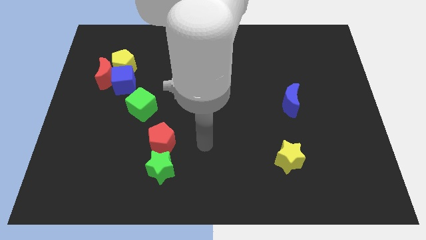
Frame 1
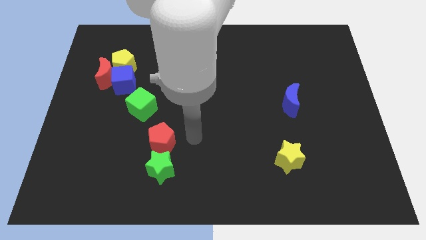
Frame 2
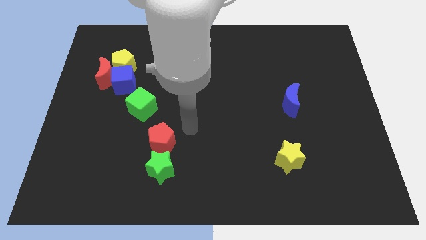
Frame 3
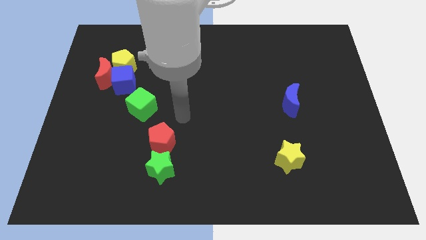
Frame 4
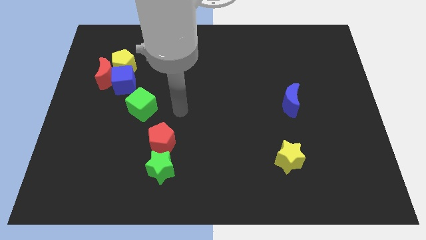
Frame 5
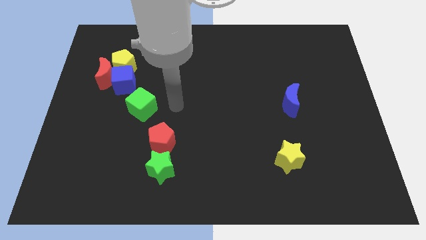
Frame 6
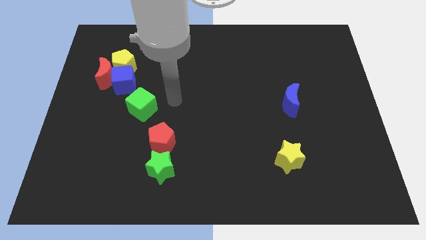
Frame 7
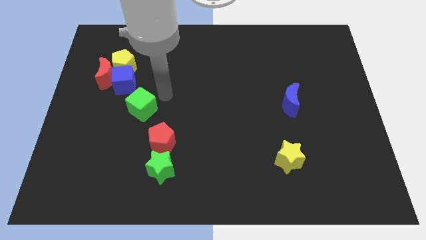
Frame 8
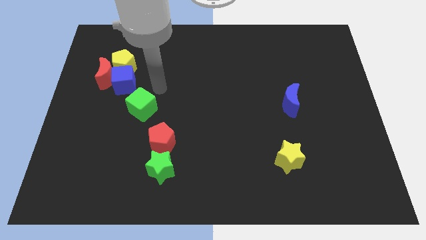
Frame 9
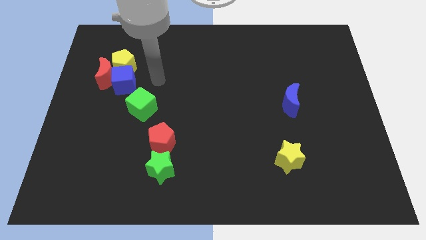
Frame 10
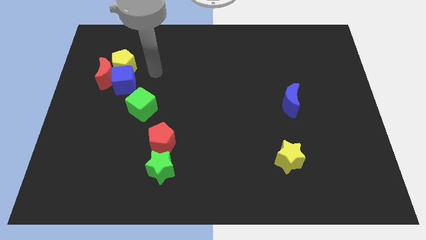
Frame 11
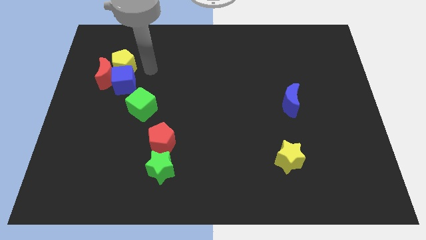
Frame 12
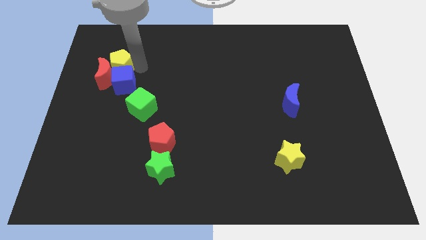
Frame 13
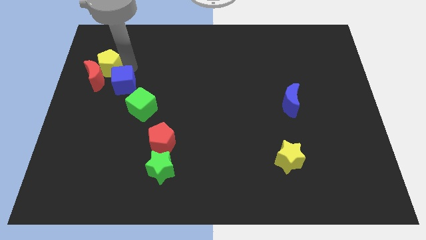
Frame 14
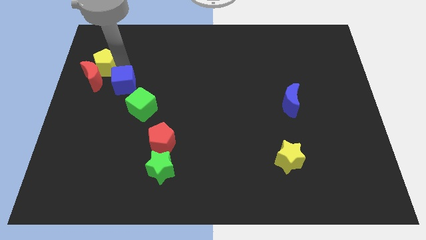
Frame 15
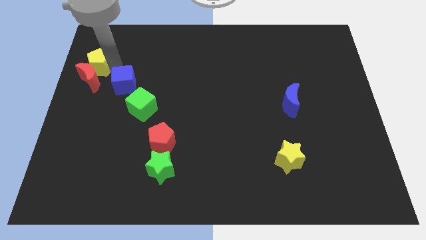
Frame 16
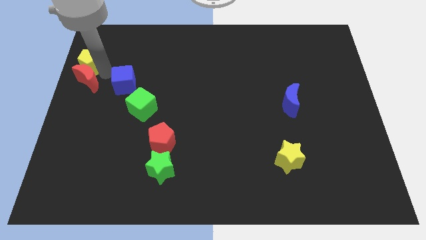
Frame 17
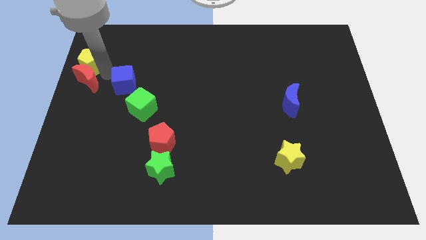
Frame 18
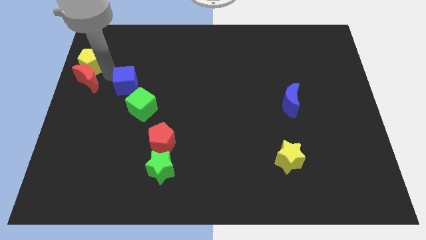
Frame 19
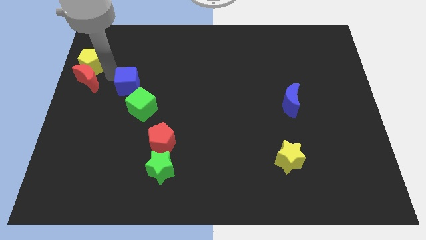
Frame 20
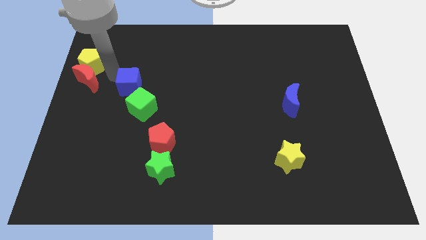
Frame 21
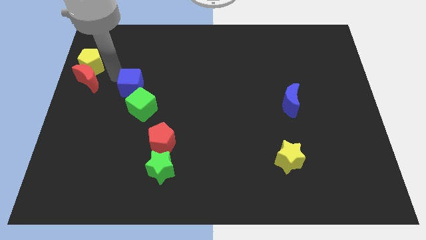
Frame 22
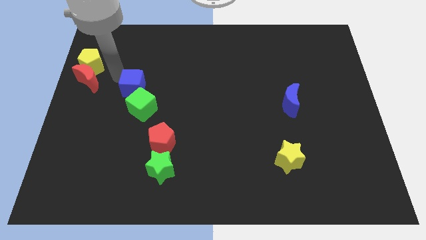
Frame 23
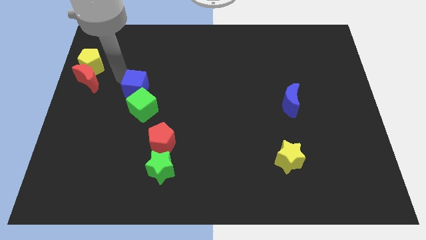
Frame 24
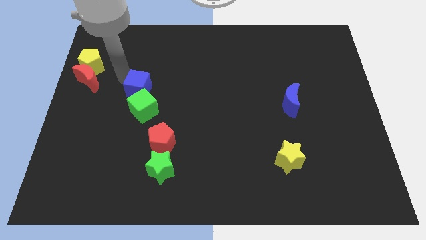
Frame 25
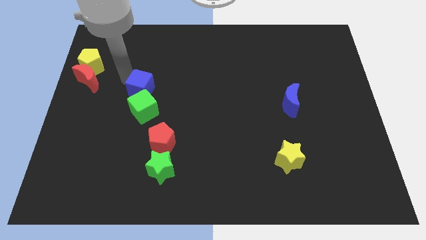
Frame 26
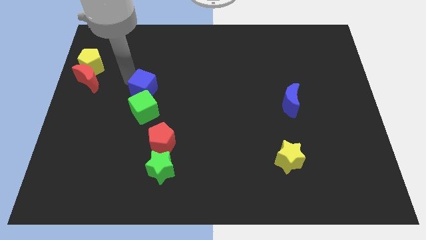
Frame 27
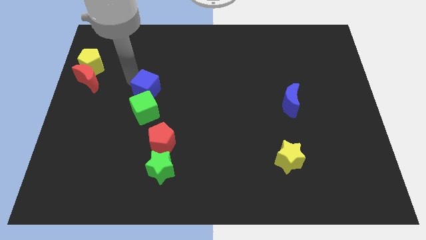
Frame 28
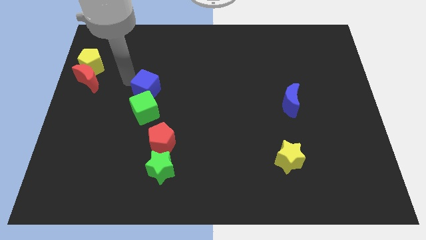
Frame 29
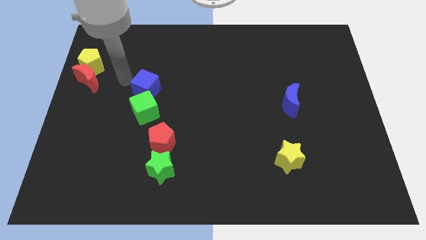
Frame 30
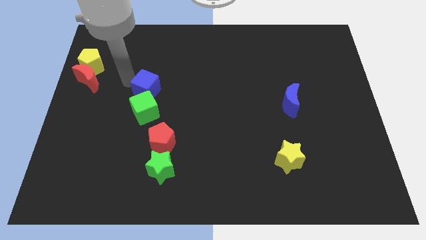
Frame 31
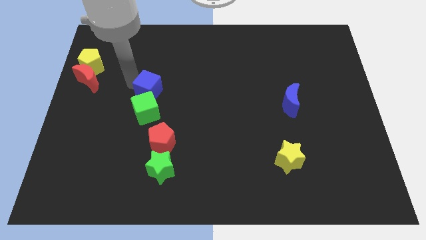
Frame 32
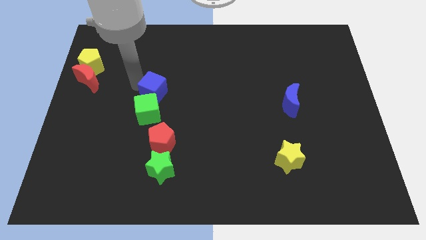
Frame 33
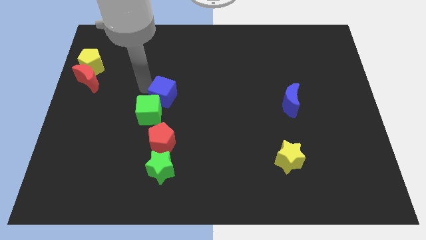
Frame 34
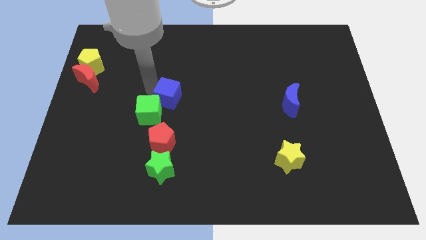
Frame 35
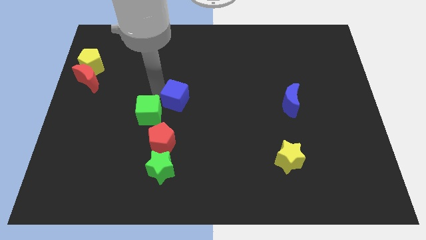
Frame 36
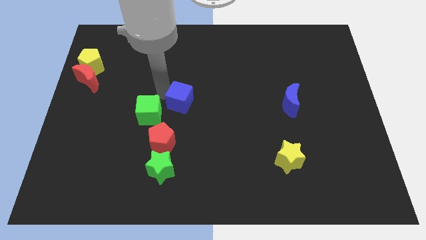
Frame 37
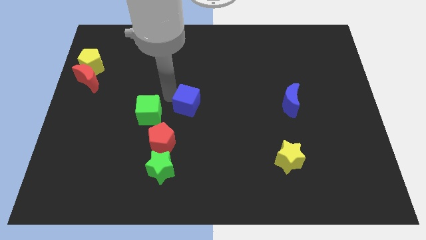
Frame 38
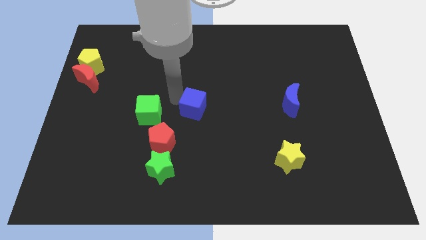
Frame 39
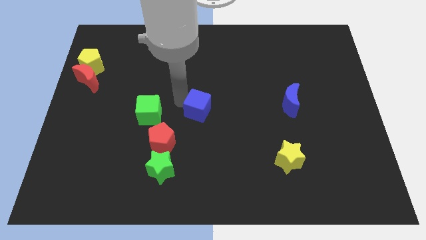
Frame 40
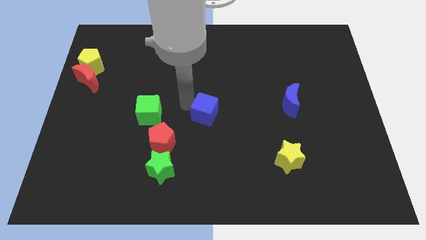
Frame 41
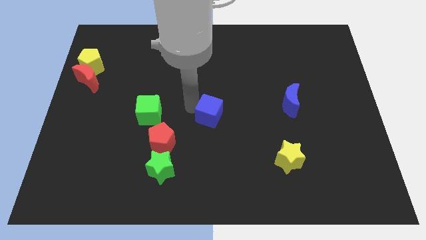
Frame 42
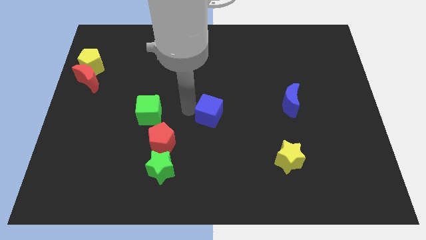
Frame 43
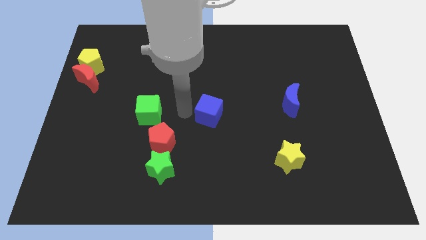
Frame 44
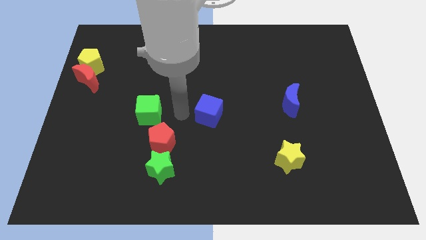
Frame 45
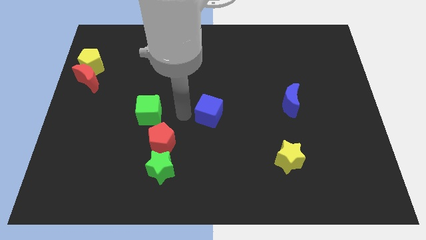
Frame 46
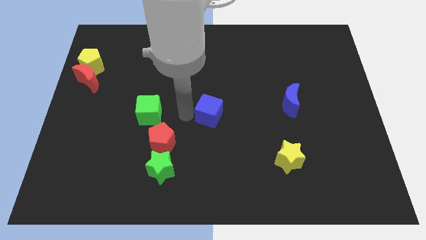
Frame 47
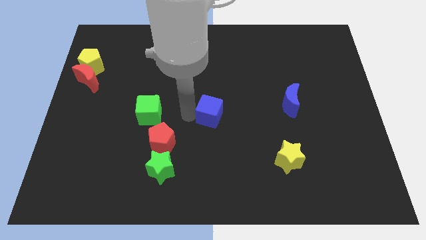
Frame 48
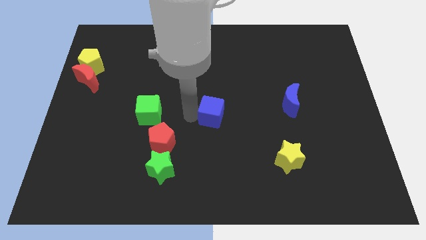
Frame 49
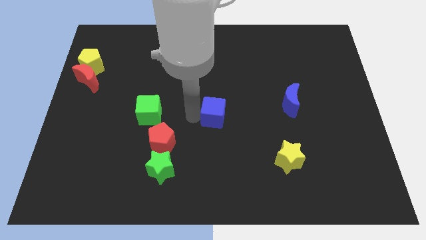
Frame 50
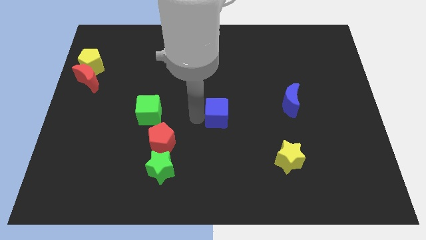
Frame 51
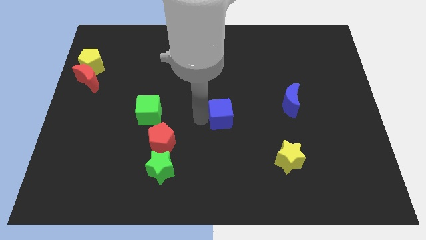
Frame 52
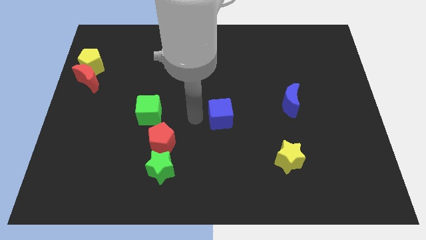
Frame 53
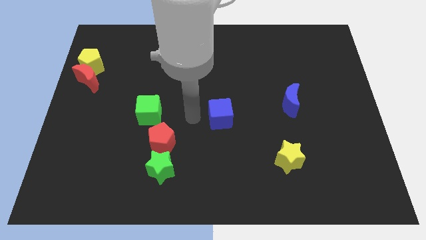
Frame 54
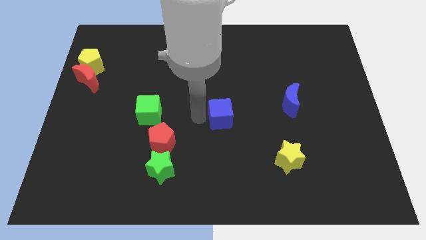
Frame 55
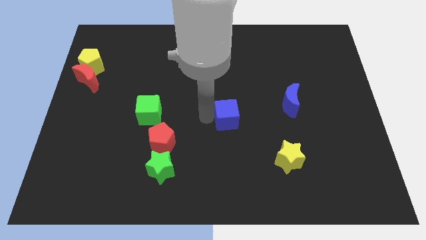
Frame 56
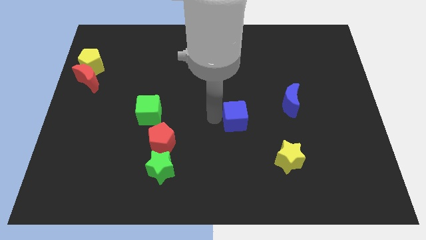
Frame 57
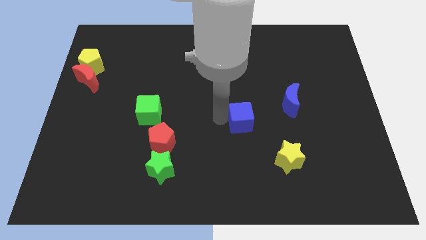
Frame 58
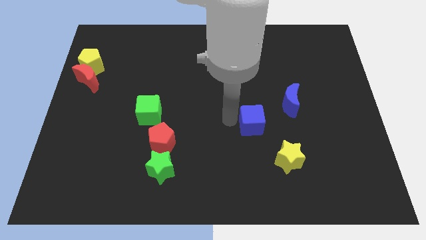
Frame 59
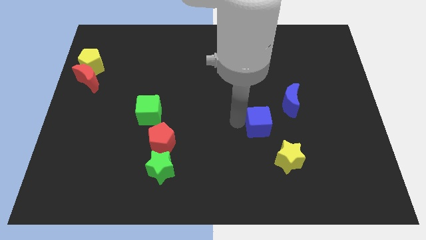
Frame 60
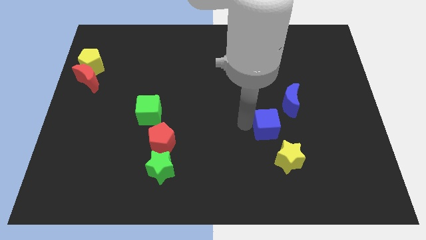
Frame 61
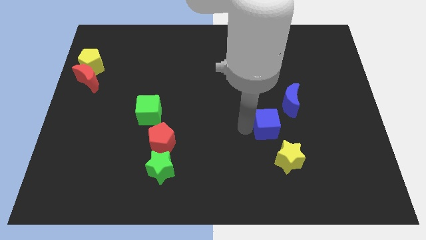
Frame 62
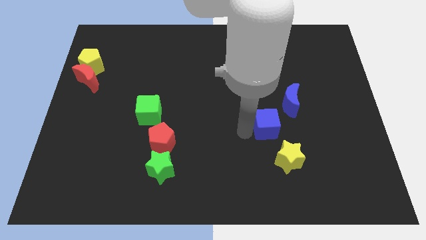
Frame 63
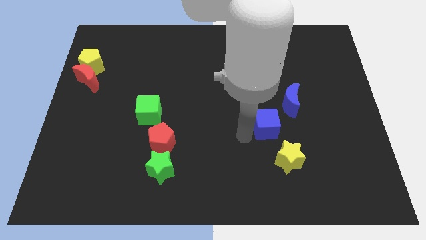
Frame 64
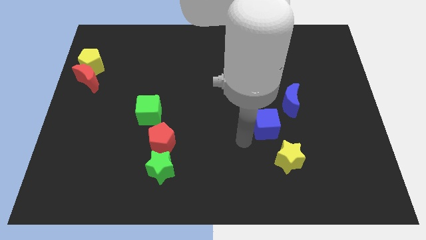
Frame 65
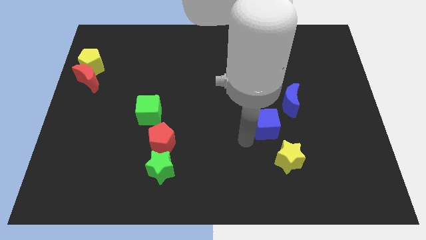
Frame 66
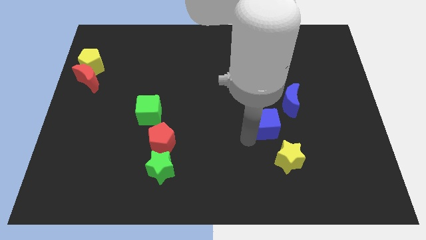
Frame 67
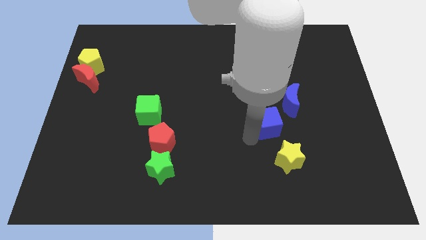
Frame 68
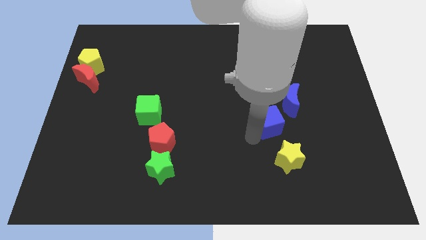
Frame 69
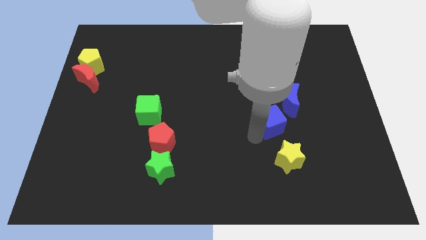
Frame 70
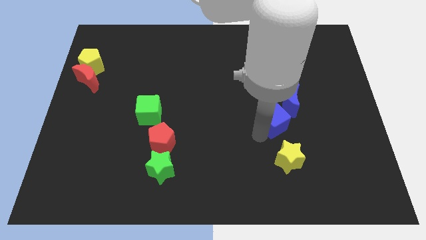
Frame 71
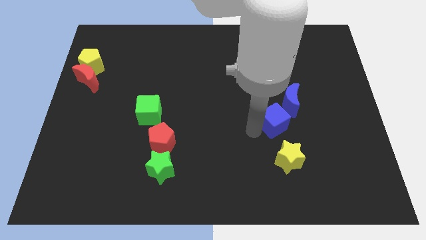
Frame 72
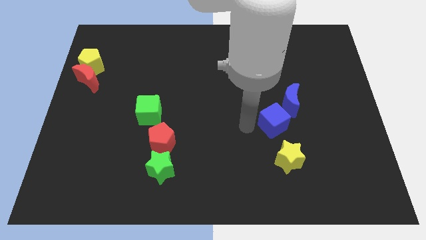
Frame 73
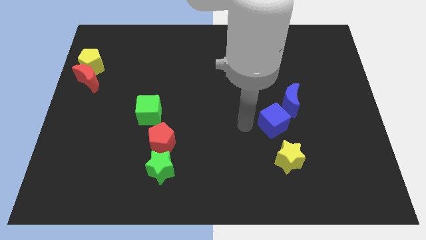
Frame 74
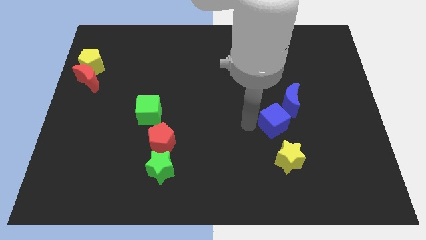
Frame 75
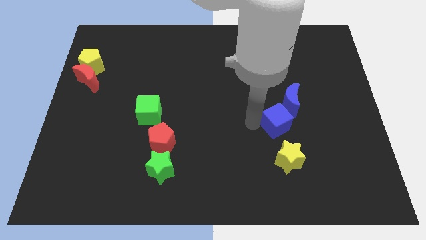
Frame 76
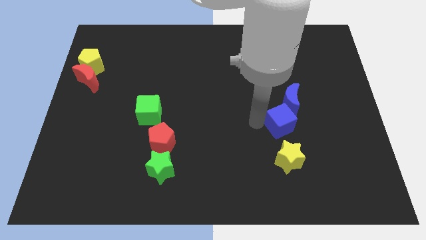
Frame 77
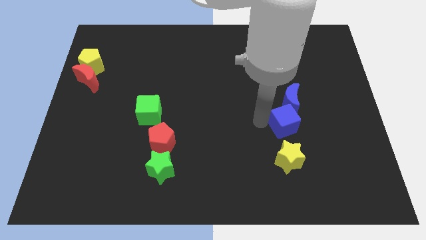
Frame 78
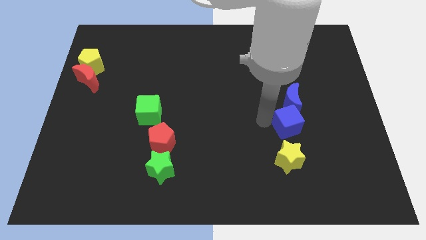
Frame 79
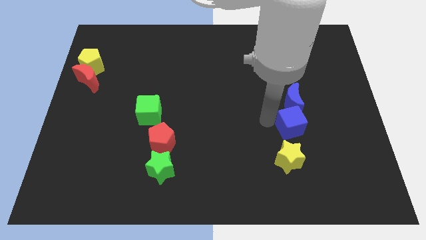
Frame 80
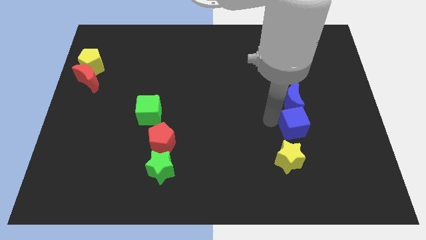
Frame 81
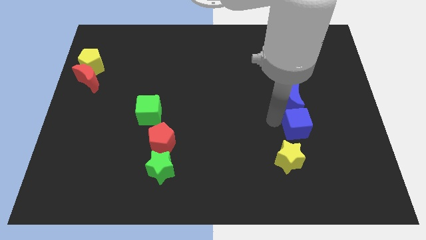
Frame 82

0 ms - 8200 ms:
put the blue cube diagonally down and to the right of the blue moon
